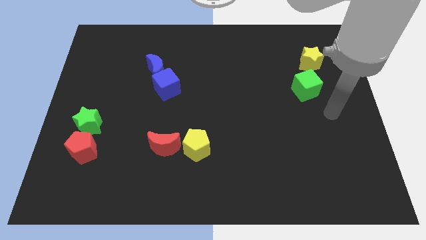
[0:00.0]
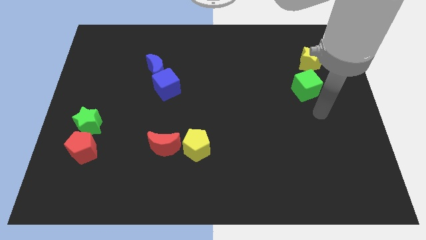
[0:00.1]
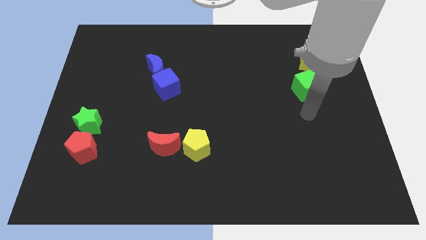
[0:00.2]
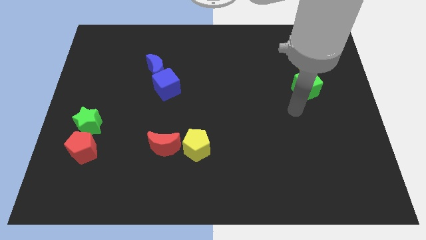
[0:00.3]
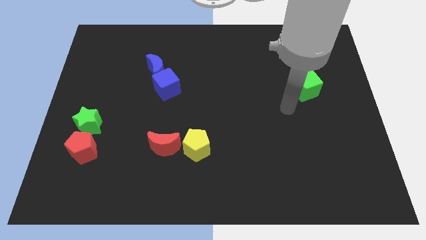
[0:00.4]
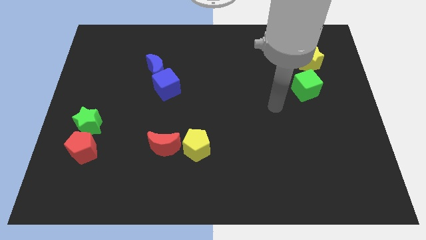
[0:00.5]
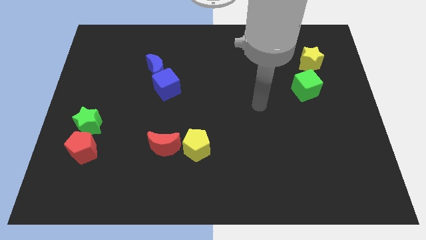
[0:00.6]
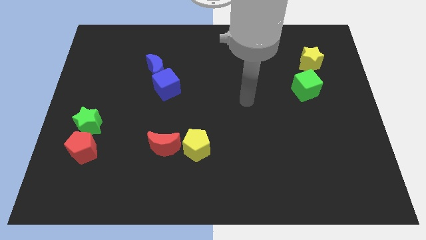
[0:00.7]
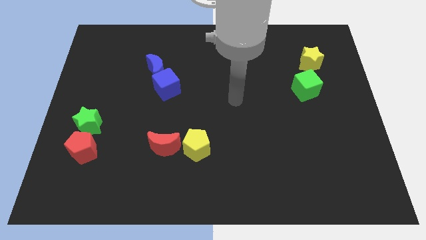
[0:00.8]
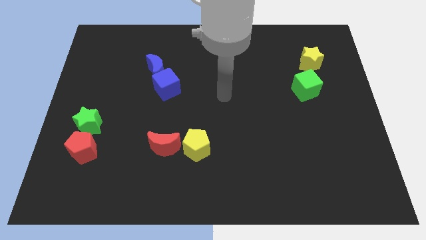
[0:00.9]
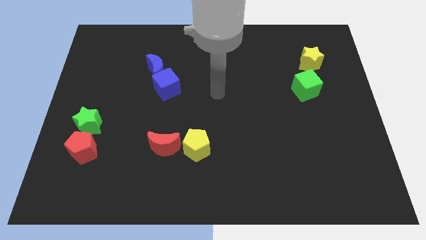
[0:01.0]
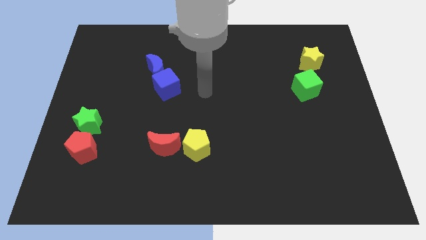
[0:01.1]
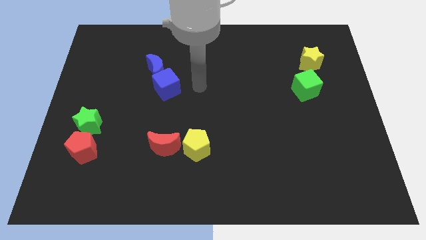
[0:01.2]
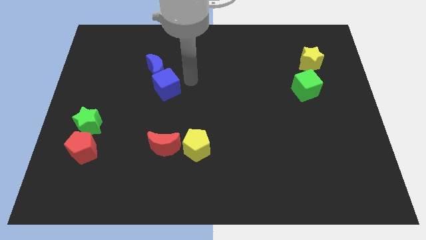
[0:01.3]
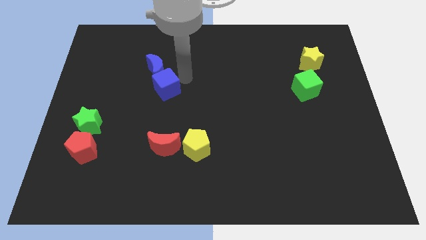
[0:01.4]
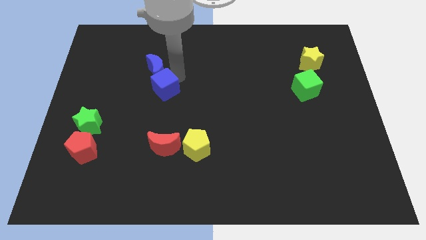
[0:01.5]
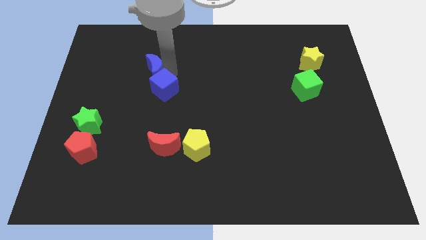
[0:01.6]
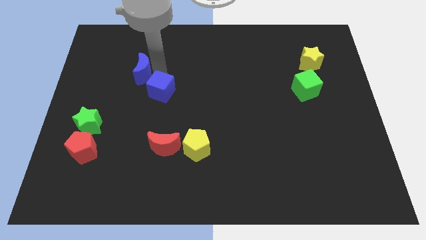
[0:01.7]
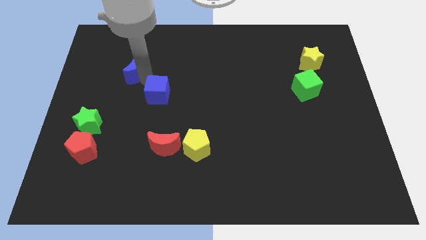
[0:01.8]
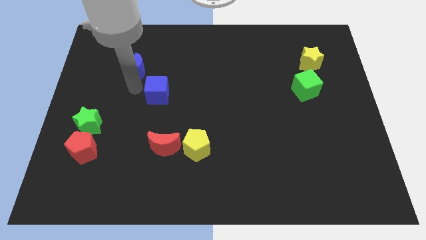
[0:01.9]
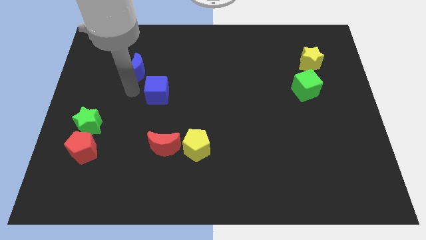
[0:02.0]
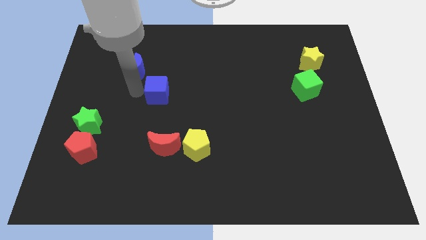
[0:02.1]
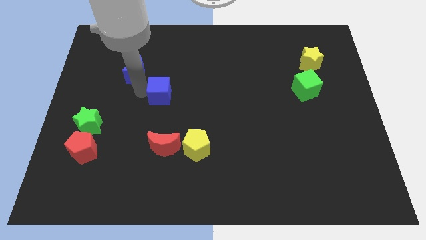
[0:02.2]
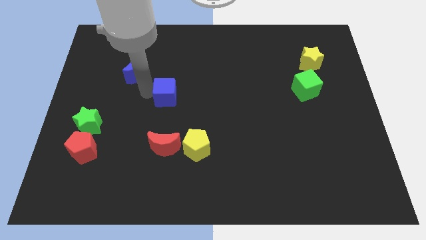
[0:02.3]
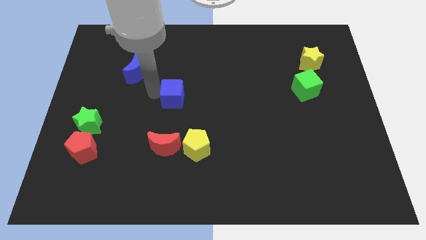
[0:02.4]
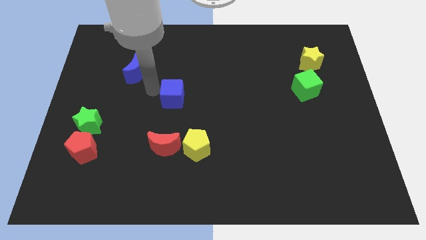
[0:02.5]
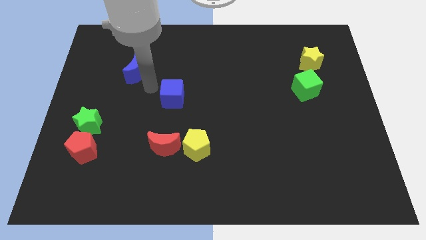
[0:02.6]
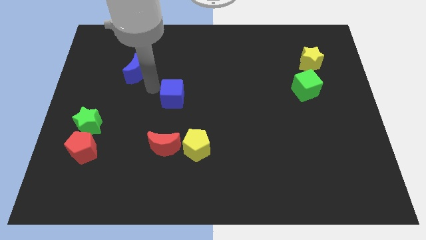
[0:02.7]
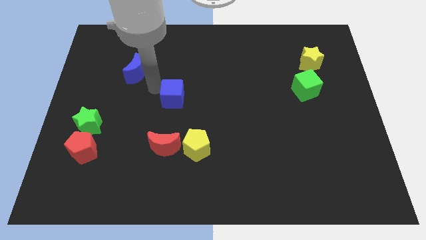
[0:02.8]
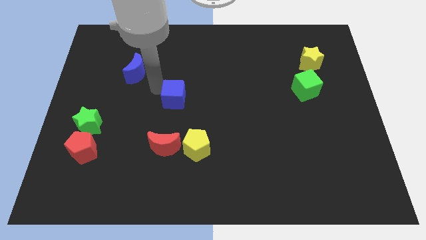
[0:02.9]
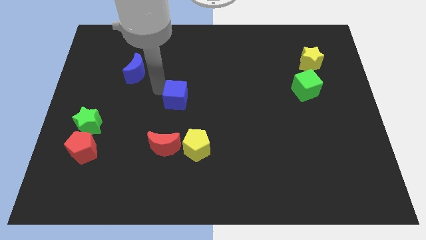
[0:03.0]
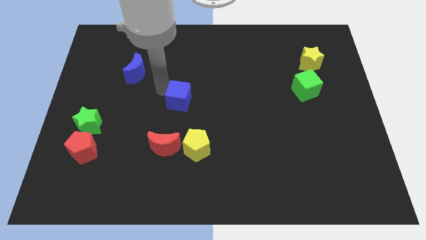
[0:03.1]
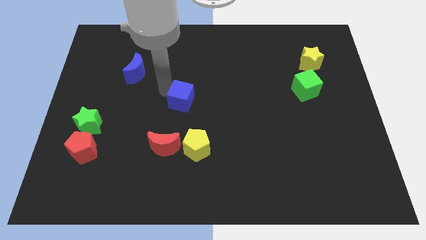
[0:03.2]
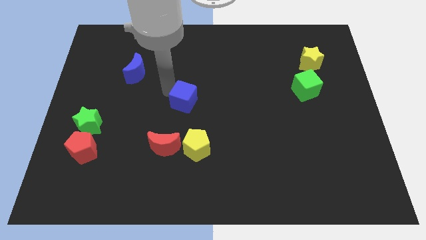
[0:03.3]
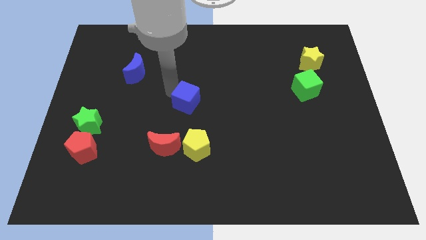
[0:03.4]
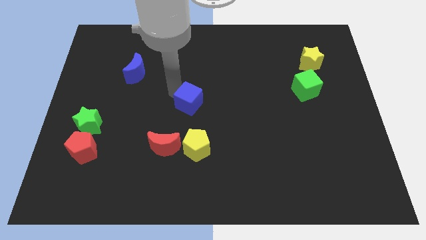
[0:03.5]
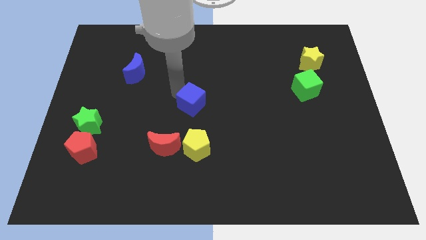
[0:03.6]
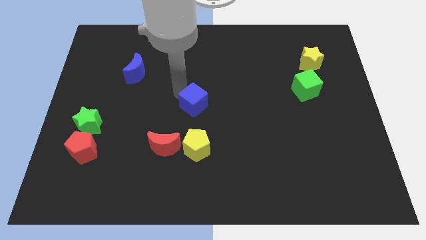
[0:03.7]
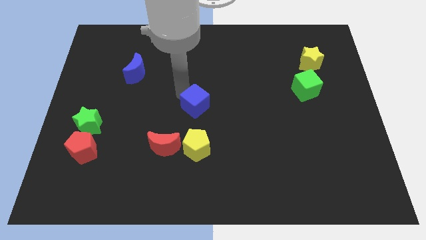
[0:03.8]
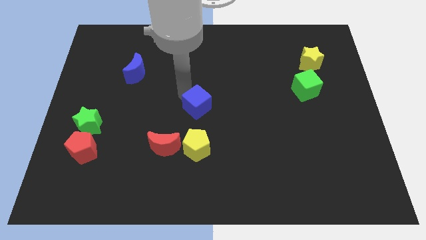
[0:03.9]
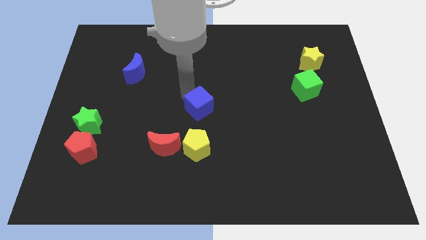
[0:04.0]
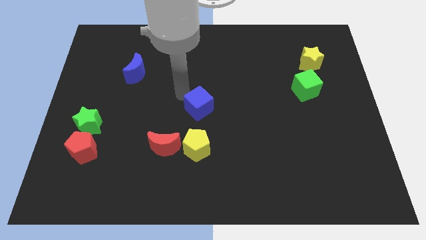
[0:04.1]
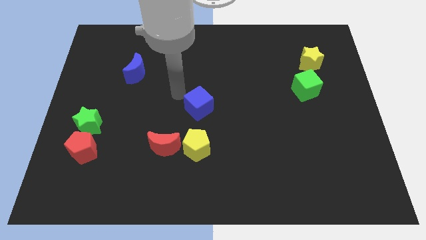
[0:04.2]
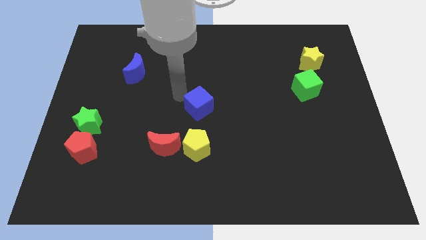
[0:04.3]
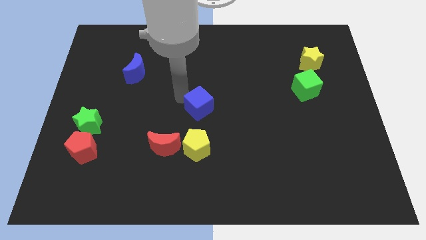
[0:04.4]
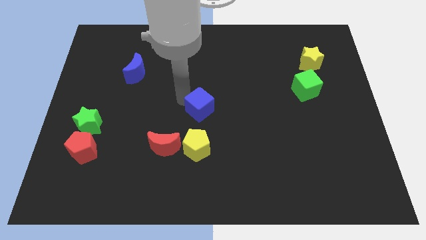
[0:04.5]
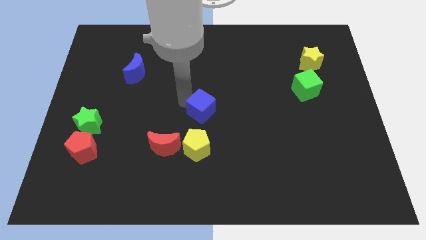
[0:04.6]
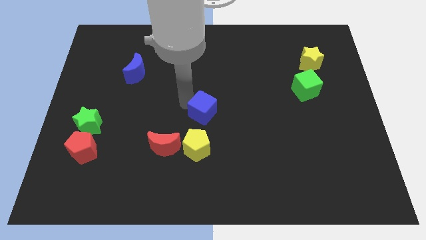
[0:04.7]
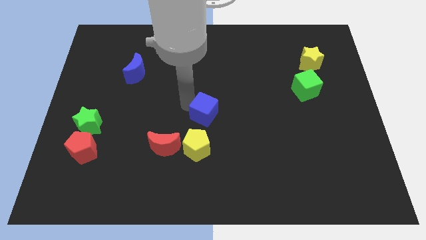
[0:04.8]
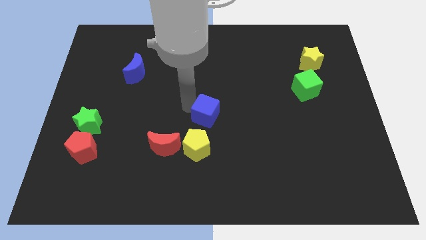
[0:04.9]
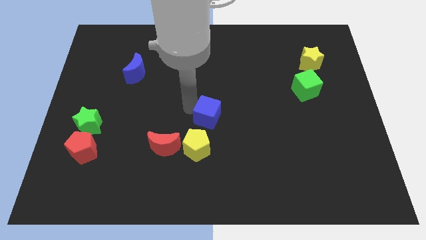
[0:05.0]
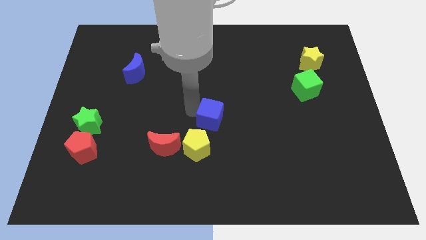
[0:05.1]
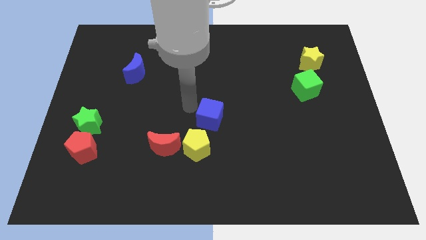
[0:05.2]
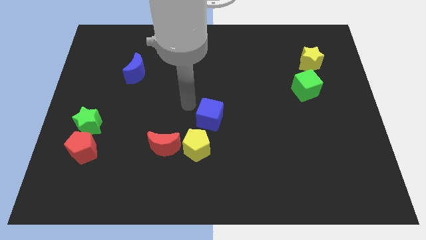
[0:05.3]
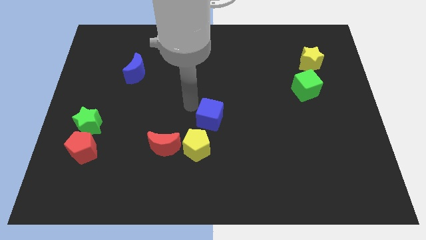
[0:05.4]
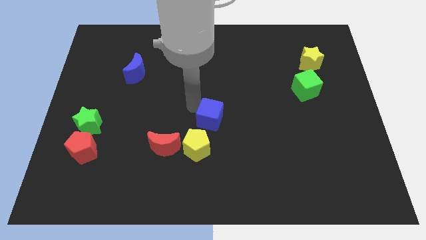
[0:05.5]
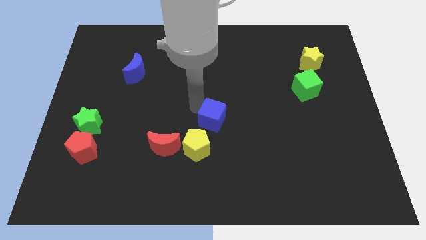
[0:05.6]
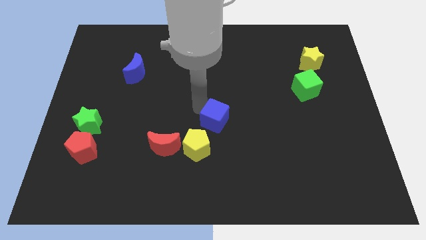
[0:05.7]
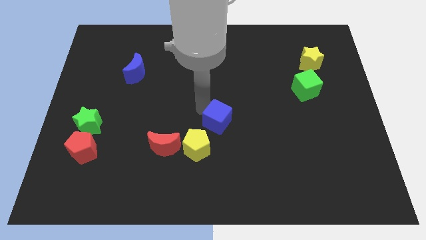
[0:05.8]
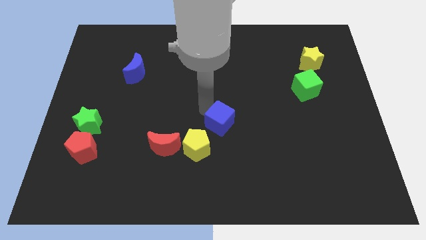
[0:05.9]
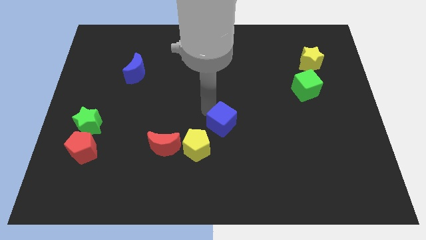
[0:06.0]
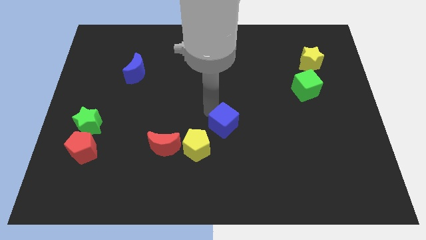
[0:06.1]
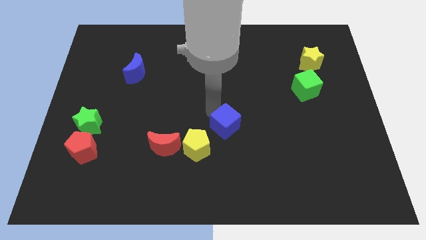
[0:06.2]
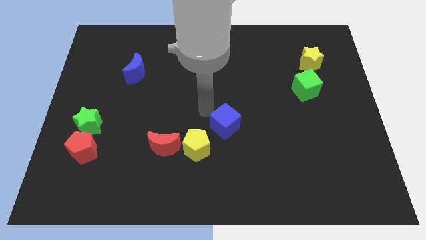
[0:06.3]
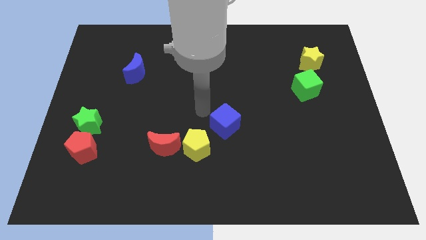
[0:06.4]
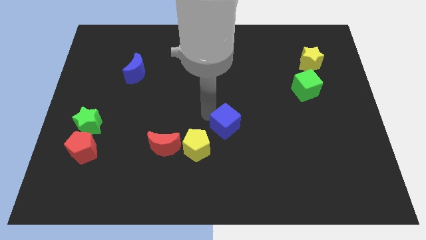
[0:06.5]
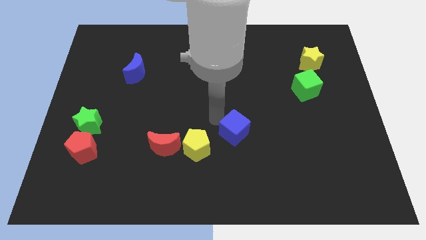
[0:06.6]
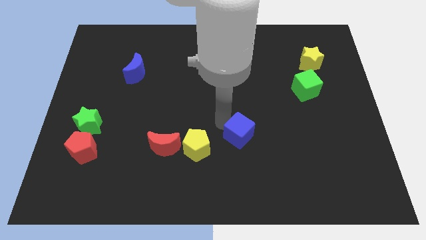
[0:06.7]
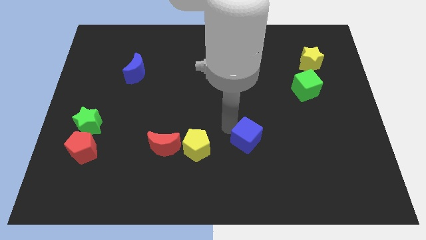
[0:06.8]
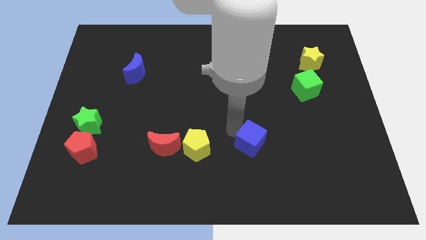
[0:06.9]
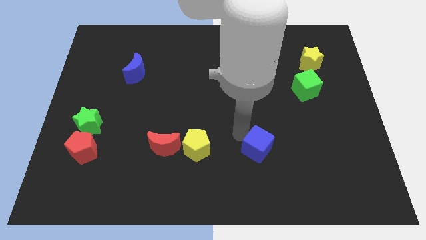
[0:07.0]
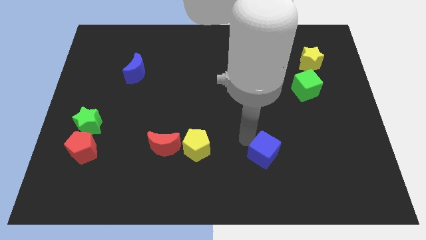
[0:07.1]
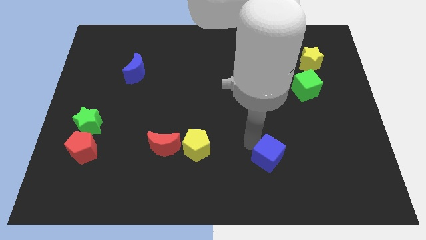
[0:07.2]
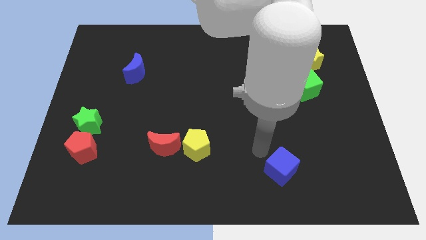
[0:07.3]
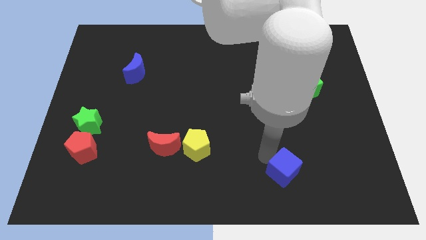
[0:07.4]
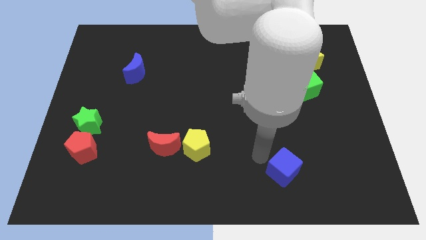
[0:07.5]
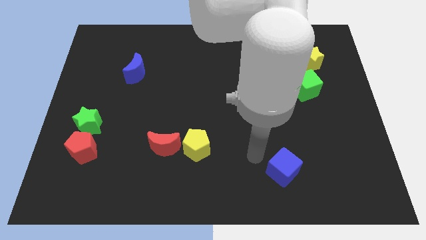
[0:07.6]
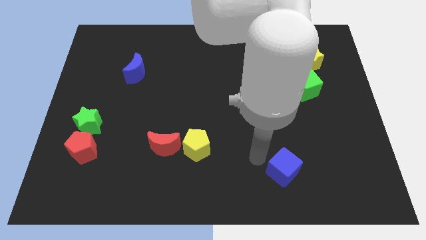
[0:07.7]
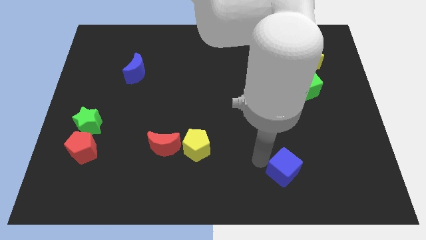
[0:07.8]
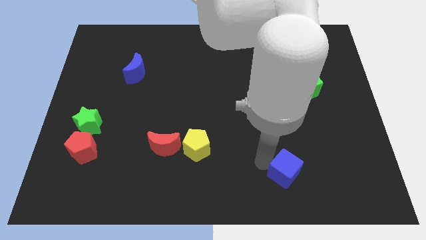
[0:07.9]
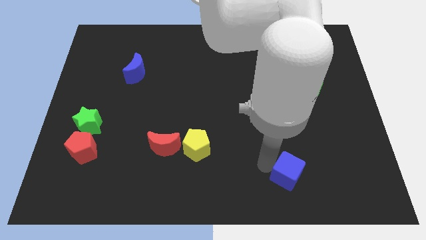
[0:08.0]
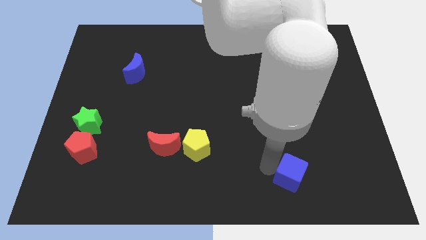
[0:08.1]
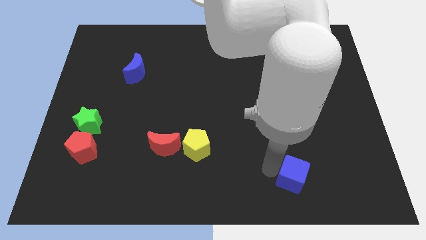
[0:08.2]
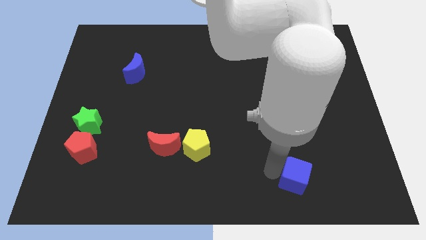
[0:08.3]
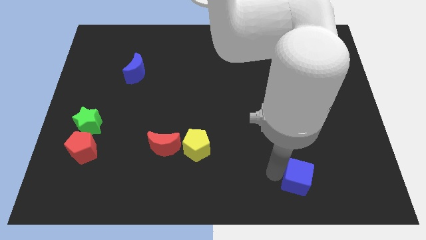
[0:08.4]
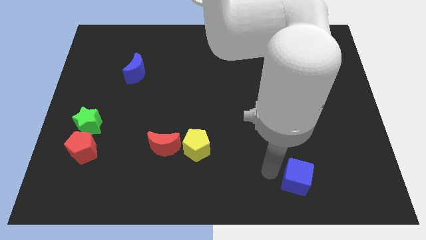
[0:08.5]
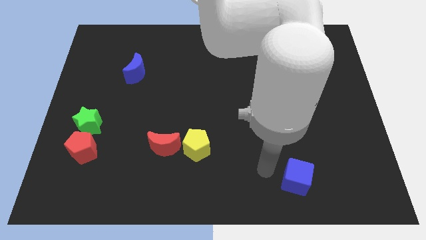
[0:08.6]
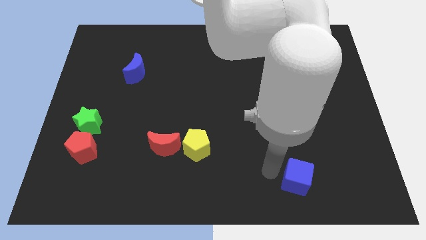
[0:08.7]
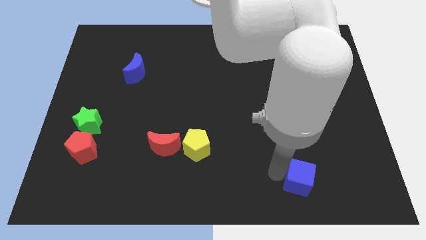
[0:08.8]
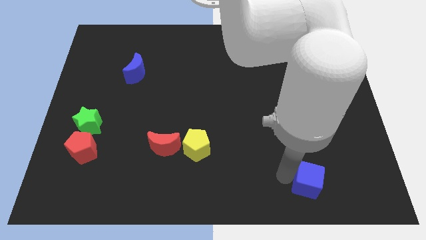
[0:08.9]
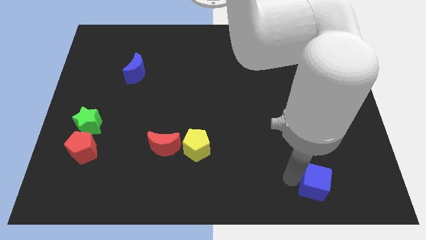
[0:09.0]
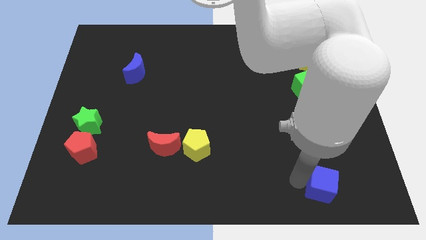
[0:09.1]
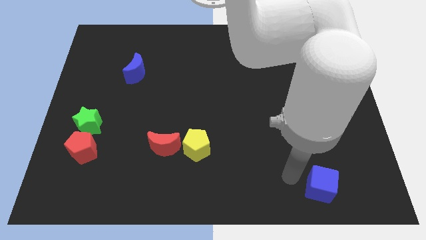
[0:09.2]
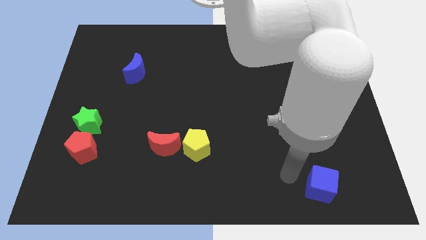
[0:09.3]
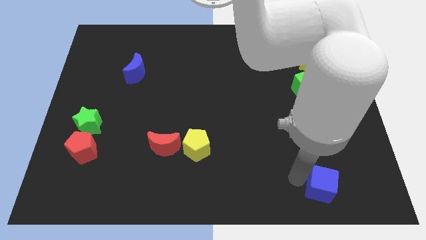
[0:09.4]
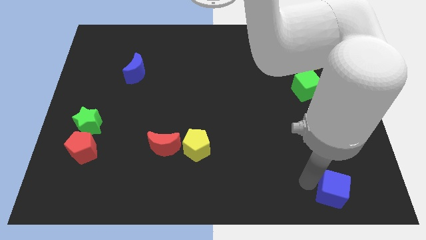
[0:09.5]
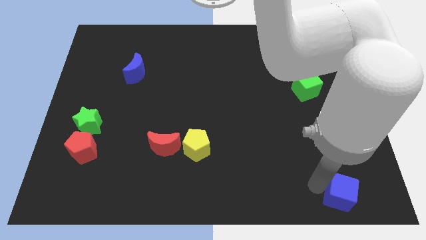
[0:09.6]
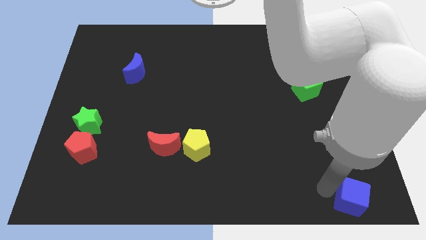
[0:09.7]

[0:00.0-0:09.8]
slide the blue cube to the bottom right corner
